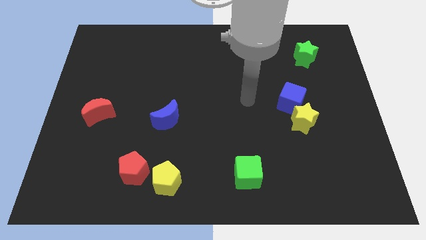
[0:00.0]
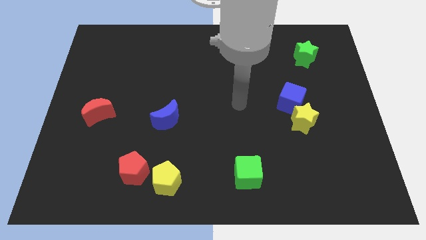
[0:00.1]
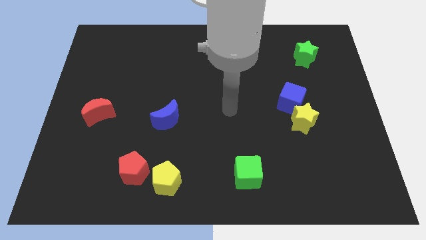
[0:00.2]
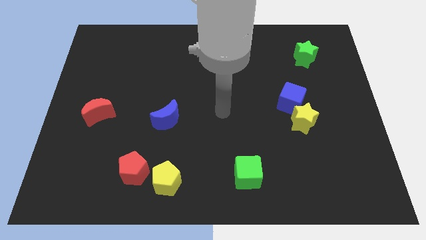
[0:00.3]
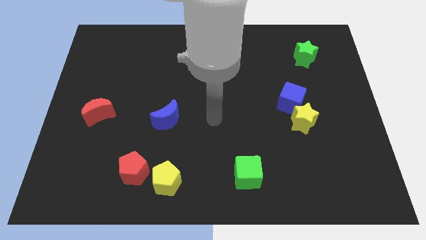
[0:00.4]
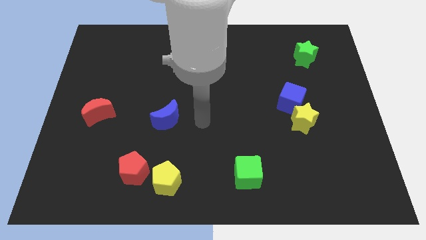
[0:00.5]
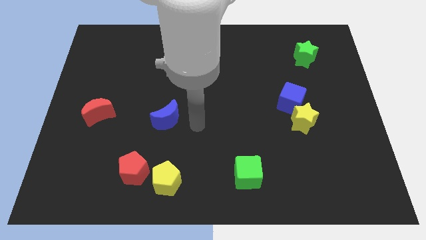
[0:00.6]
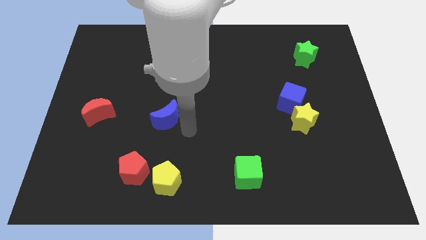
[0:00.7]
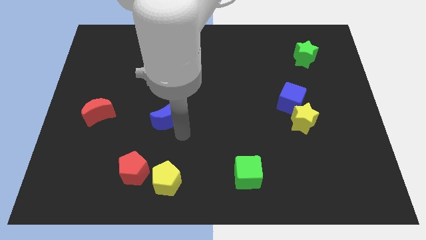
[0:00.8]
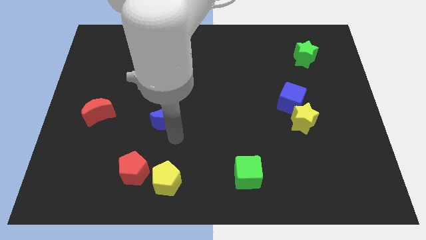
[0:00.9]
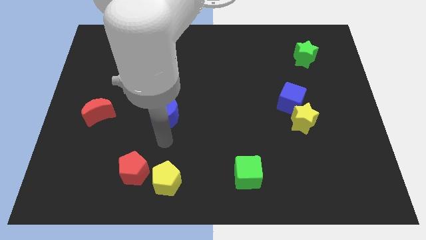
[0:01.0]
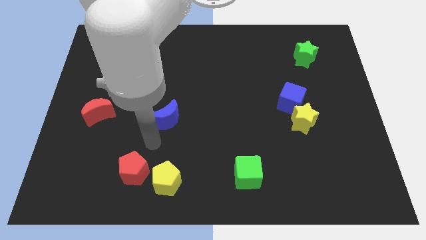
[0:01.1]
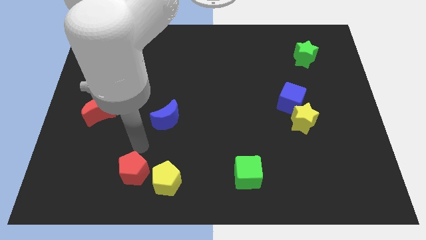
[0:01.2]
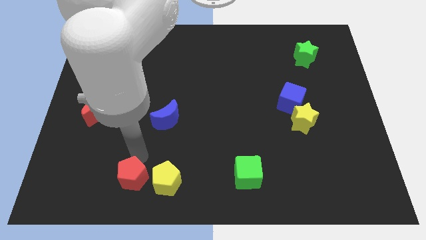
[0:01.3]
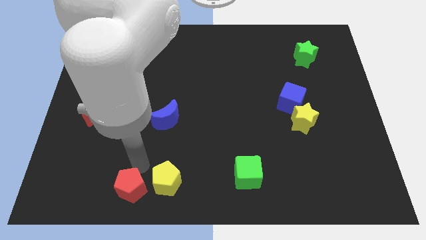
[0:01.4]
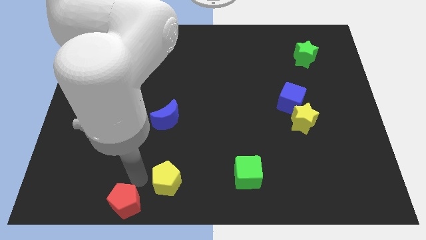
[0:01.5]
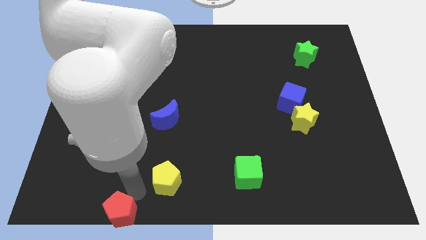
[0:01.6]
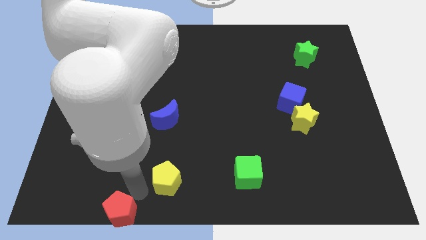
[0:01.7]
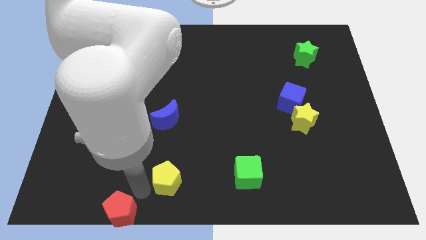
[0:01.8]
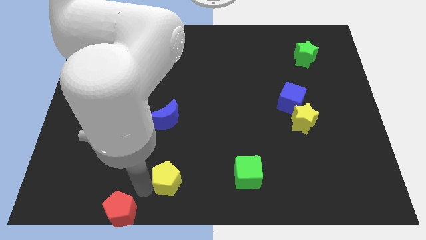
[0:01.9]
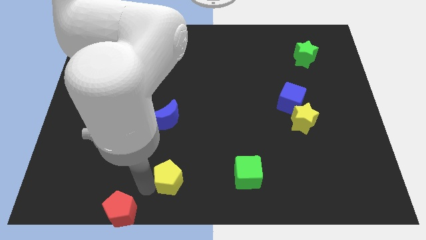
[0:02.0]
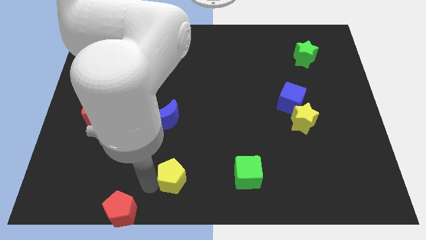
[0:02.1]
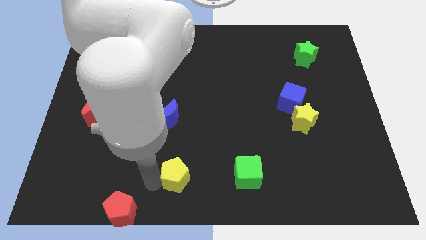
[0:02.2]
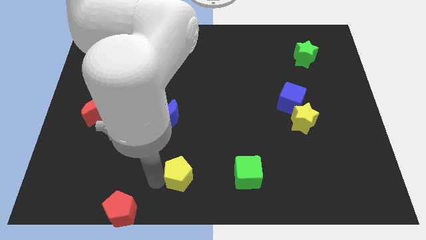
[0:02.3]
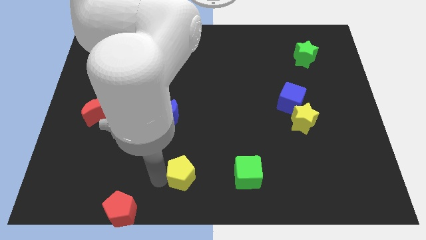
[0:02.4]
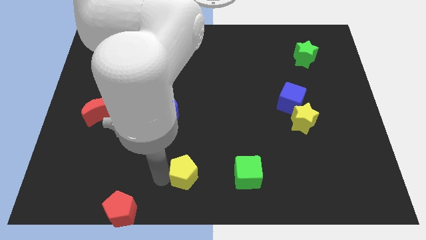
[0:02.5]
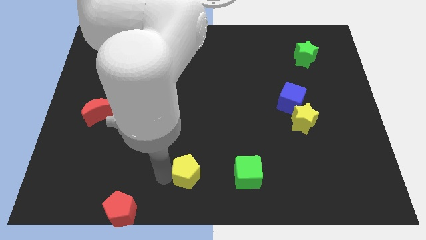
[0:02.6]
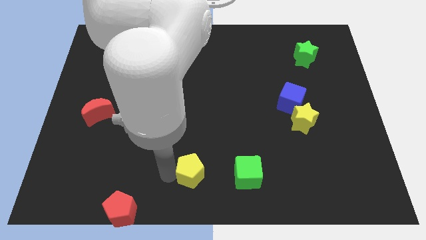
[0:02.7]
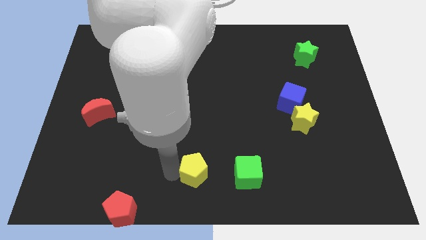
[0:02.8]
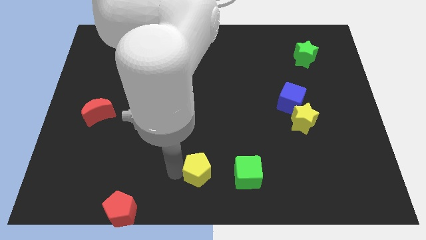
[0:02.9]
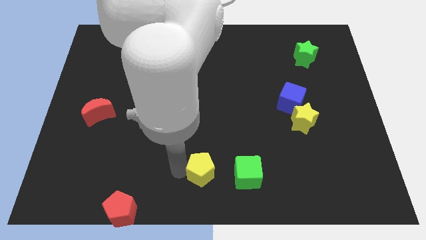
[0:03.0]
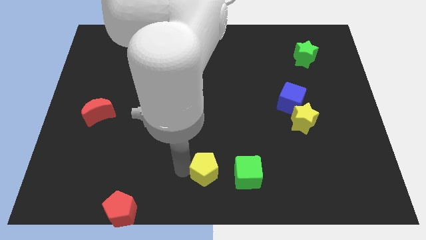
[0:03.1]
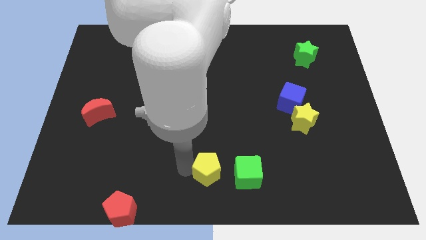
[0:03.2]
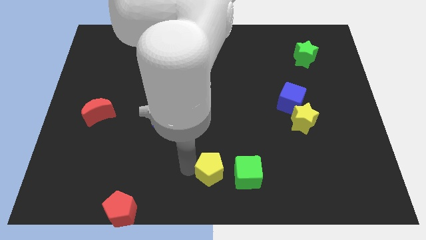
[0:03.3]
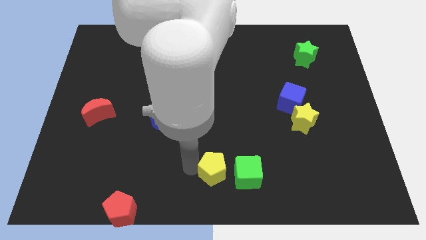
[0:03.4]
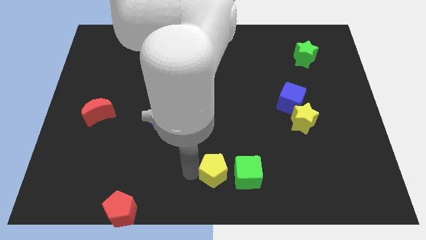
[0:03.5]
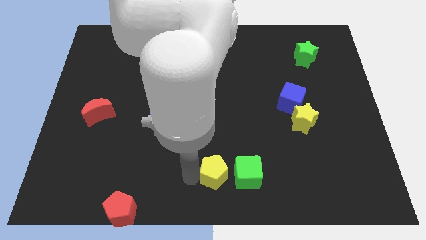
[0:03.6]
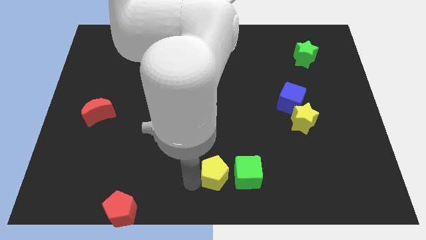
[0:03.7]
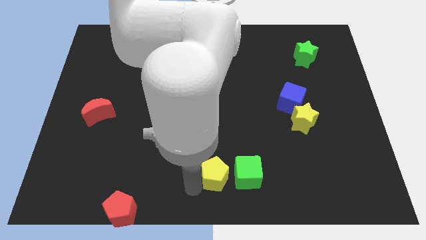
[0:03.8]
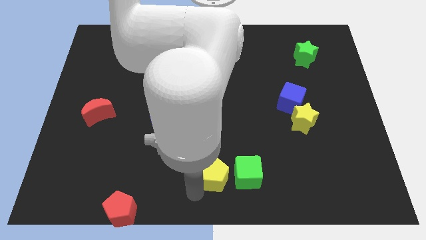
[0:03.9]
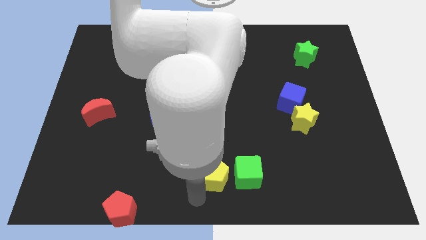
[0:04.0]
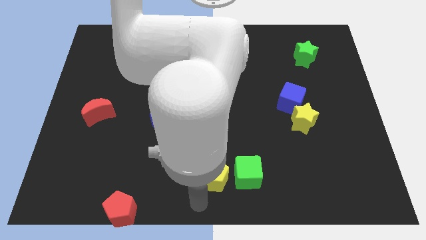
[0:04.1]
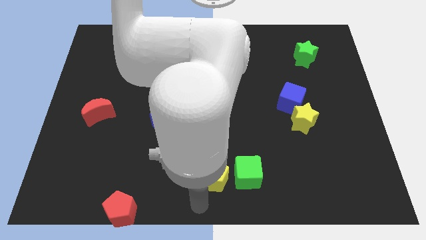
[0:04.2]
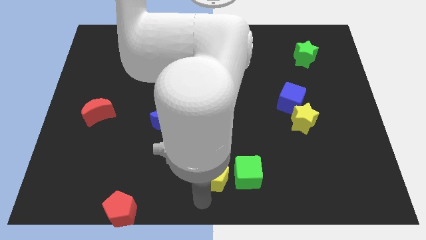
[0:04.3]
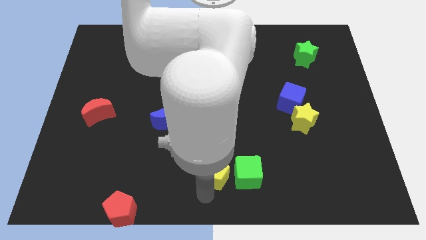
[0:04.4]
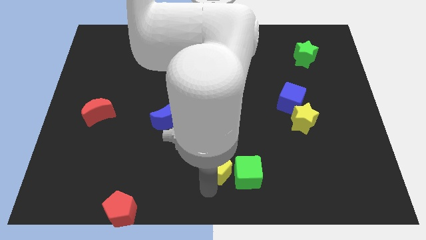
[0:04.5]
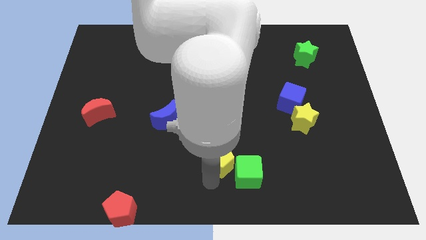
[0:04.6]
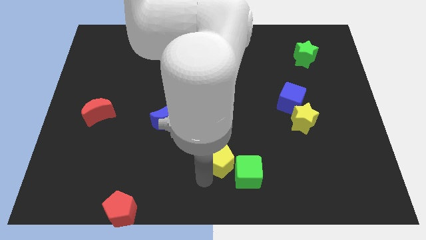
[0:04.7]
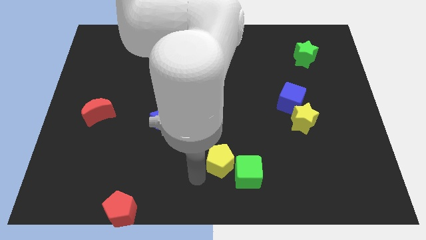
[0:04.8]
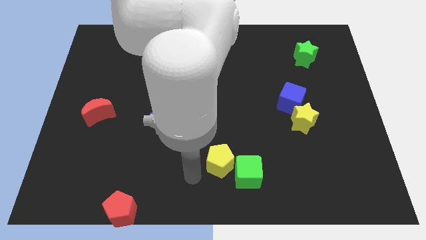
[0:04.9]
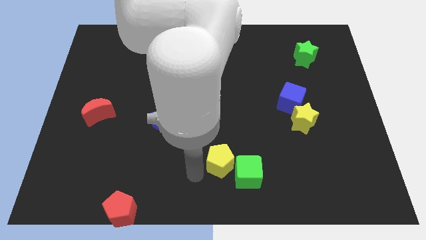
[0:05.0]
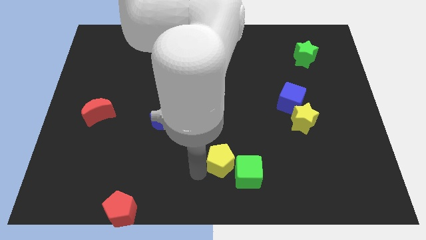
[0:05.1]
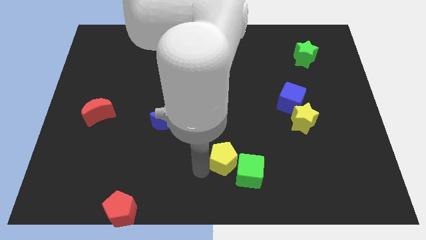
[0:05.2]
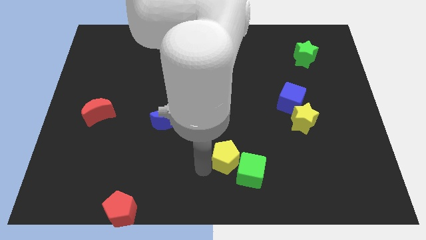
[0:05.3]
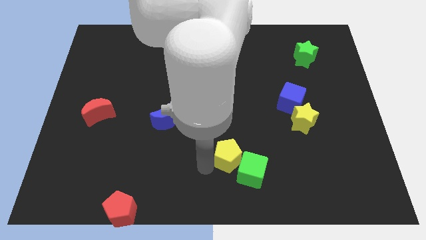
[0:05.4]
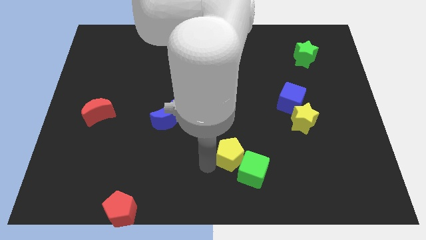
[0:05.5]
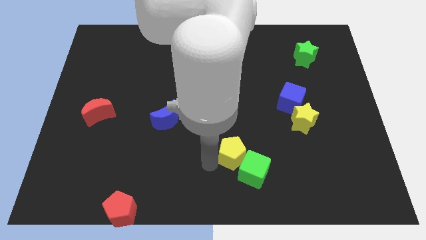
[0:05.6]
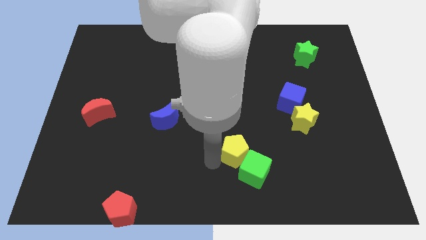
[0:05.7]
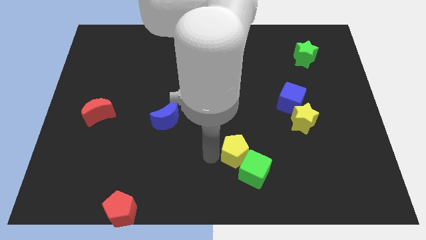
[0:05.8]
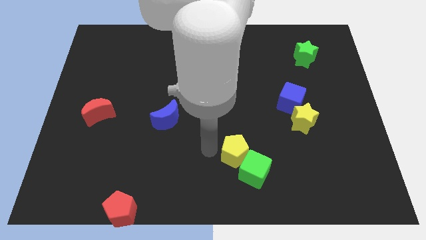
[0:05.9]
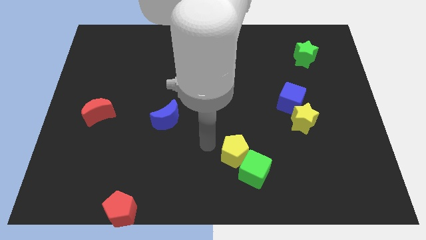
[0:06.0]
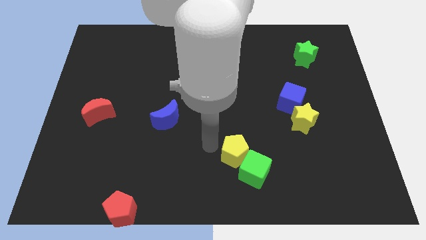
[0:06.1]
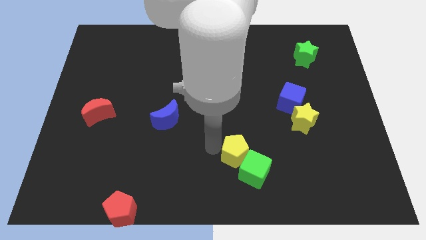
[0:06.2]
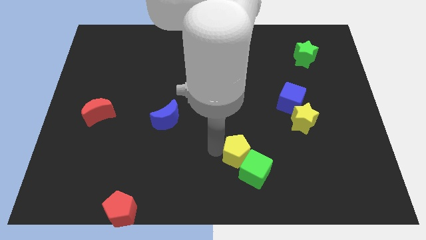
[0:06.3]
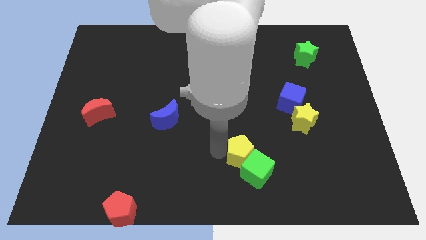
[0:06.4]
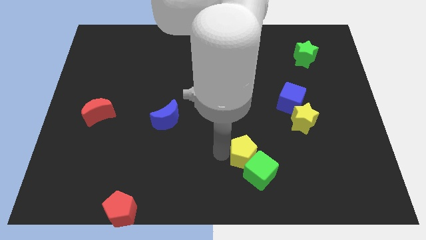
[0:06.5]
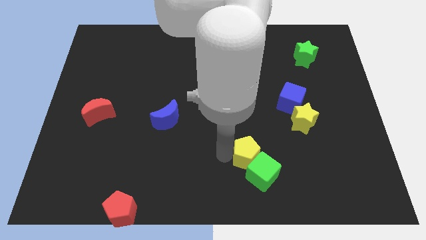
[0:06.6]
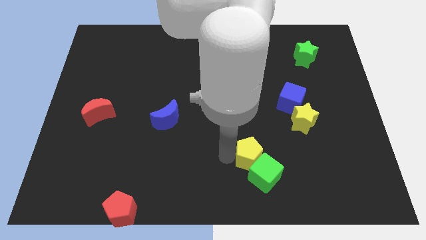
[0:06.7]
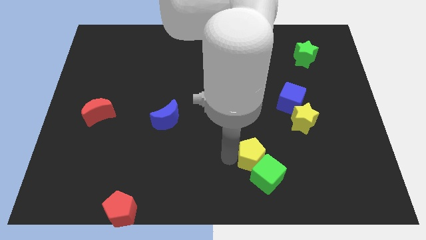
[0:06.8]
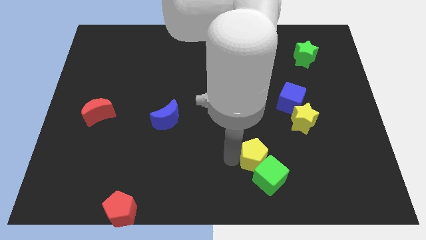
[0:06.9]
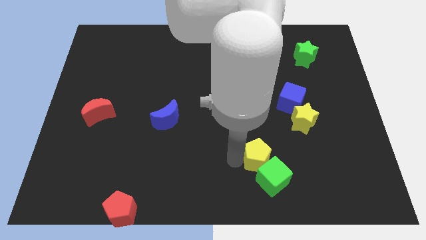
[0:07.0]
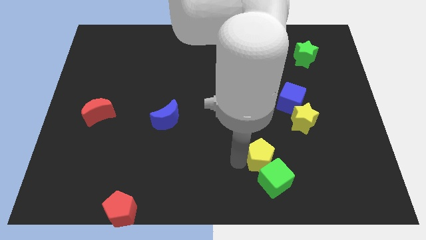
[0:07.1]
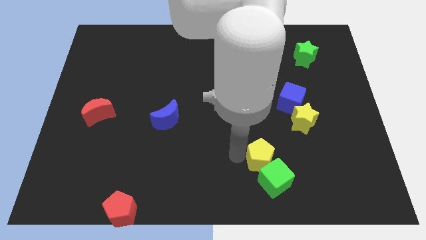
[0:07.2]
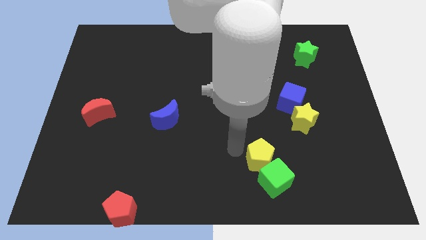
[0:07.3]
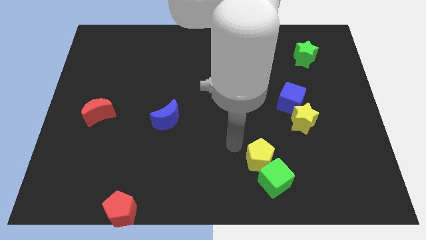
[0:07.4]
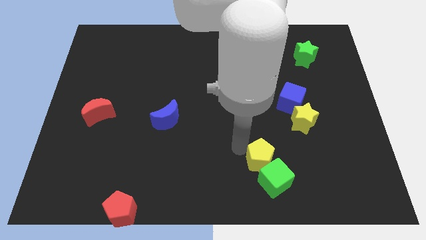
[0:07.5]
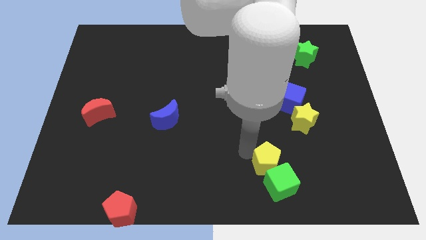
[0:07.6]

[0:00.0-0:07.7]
slide the yellow pentagon to the right

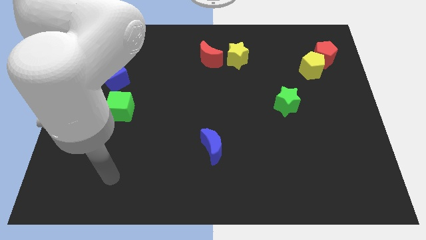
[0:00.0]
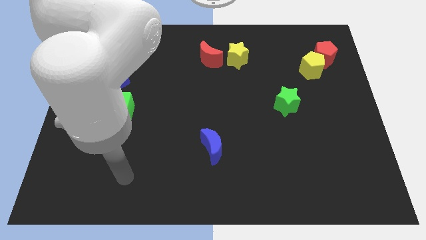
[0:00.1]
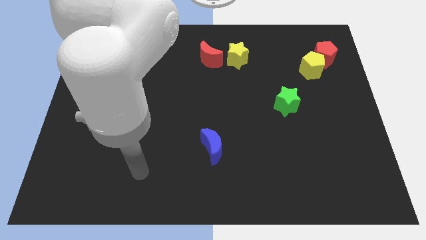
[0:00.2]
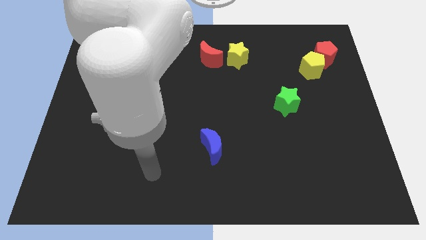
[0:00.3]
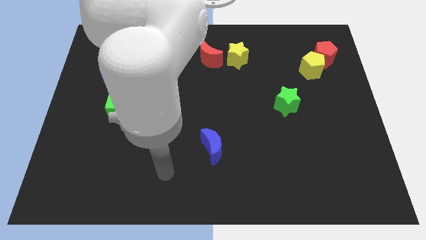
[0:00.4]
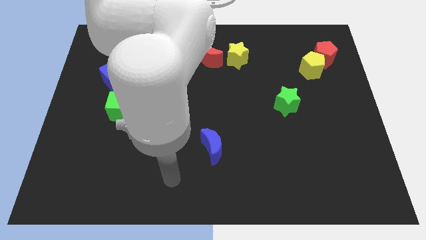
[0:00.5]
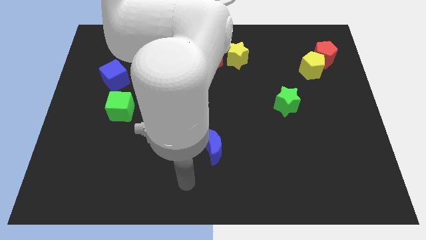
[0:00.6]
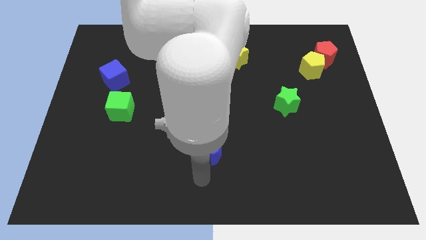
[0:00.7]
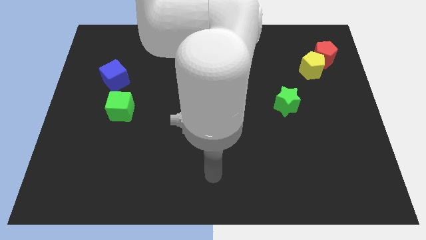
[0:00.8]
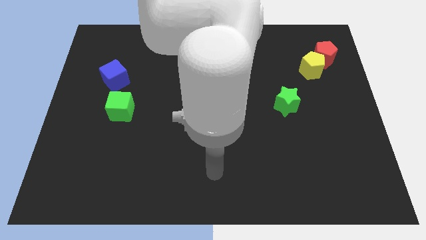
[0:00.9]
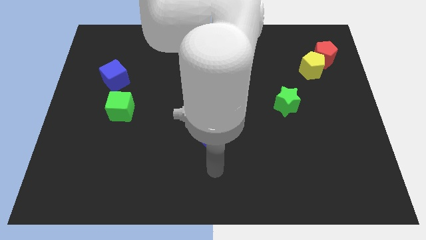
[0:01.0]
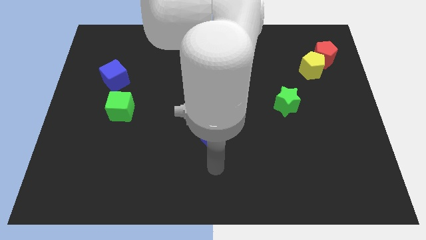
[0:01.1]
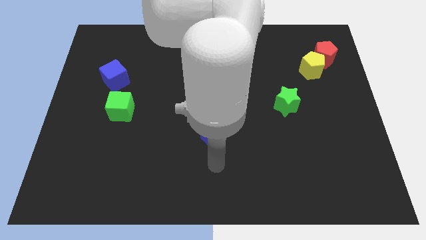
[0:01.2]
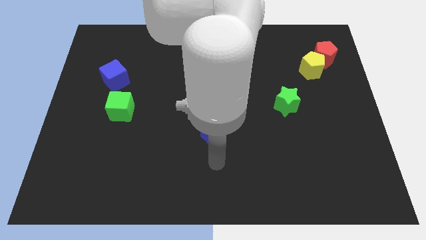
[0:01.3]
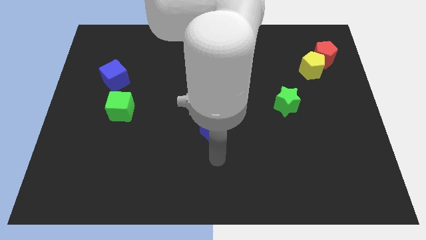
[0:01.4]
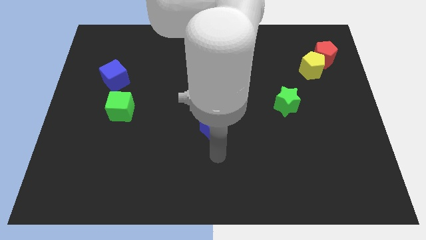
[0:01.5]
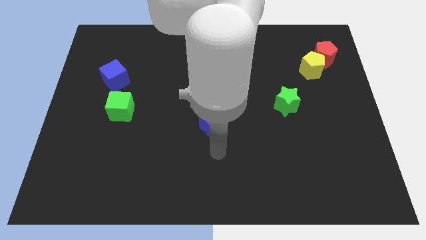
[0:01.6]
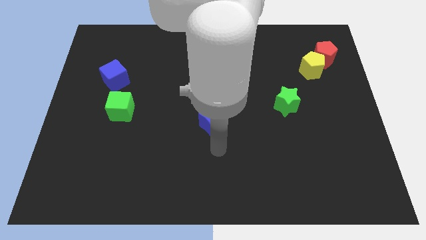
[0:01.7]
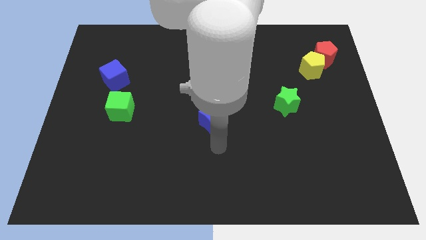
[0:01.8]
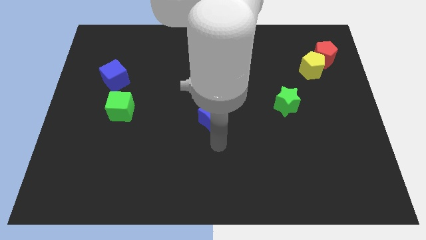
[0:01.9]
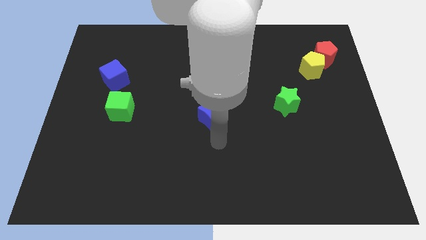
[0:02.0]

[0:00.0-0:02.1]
slide the blue moon a little bit upwards
